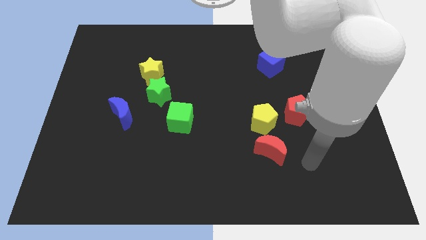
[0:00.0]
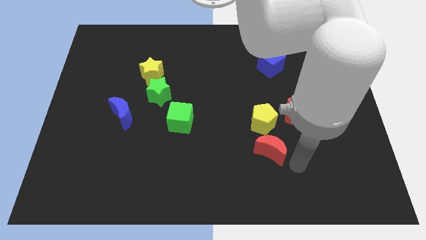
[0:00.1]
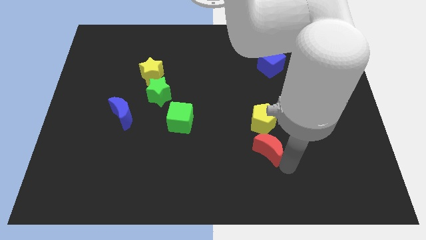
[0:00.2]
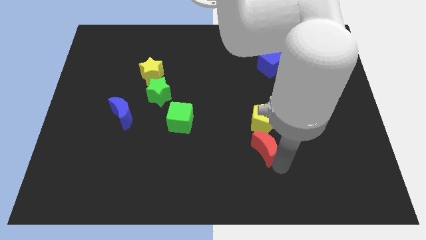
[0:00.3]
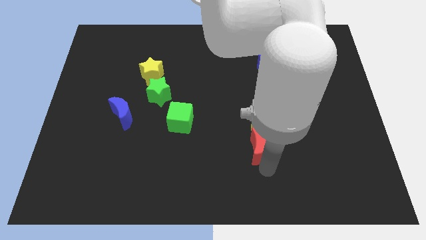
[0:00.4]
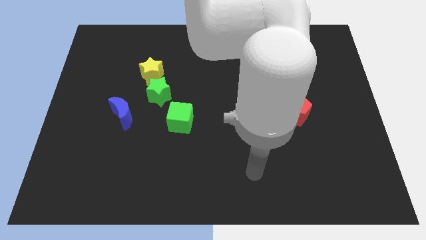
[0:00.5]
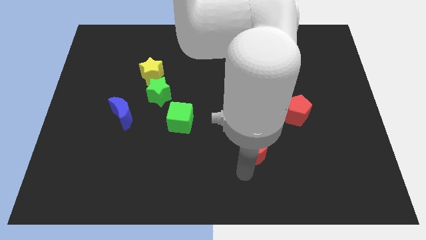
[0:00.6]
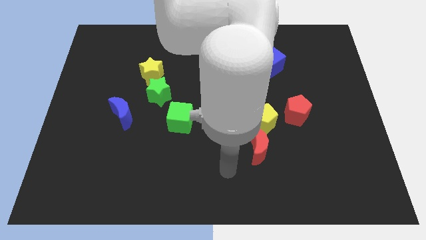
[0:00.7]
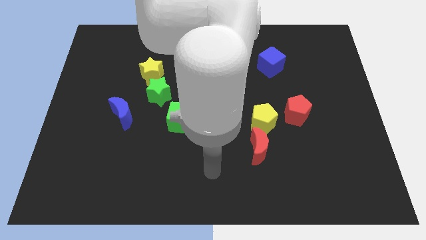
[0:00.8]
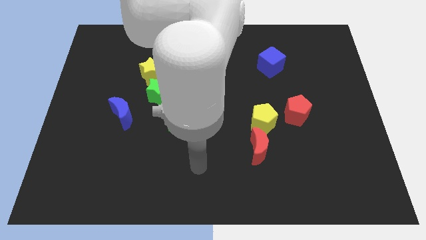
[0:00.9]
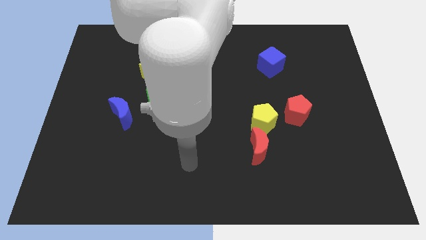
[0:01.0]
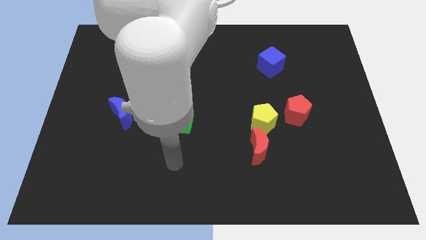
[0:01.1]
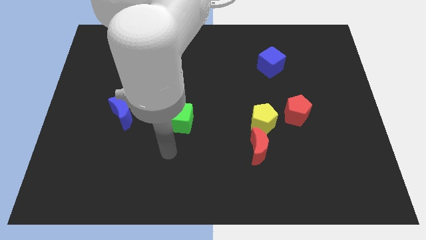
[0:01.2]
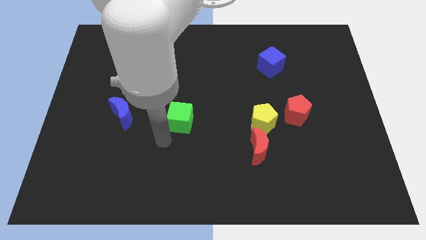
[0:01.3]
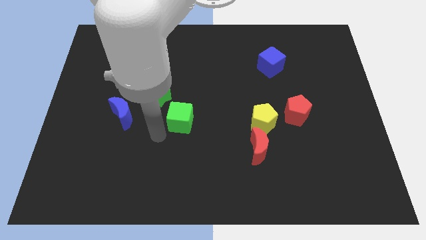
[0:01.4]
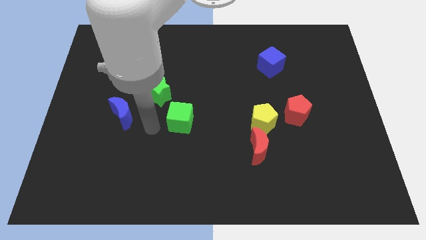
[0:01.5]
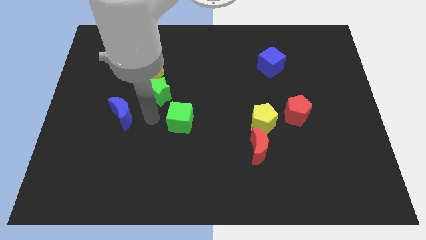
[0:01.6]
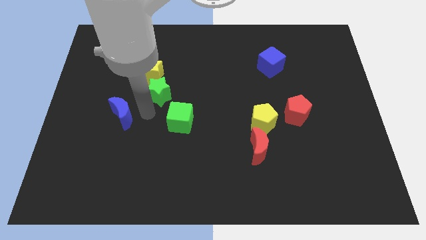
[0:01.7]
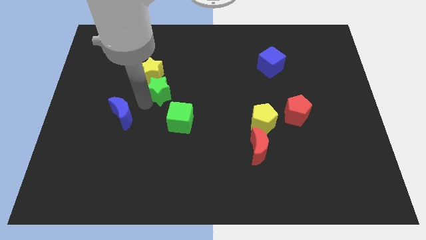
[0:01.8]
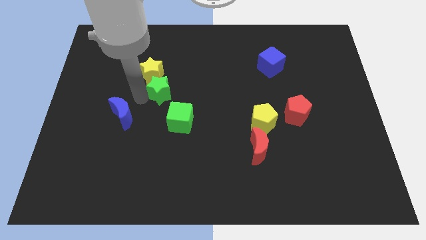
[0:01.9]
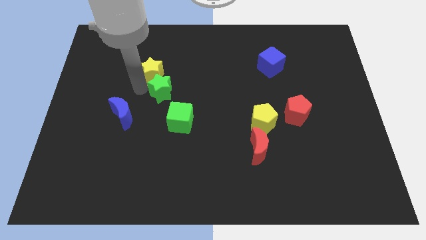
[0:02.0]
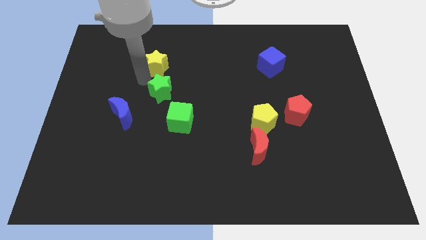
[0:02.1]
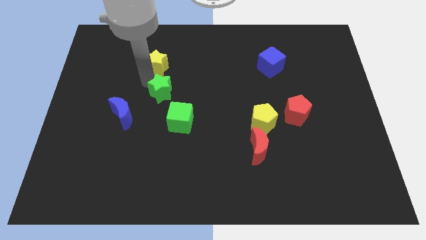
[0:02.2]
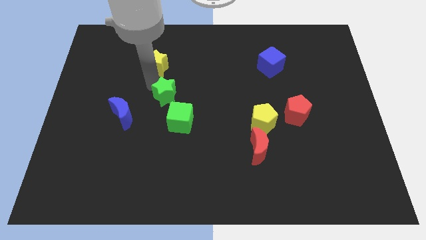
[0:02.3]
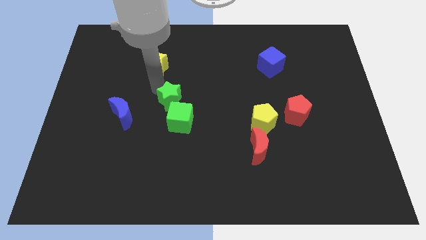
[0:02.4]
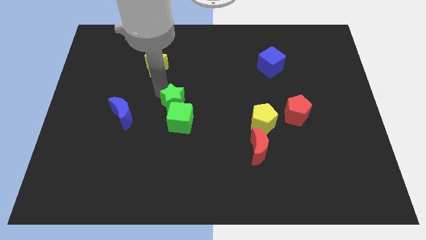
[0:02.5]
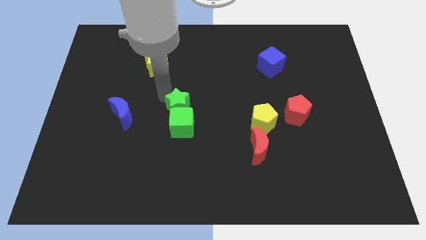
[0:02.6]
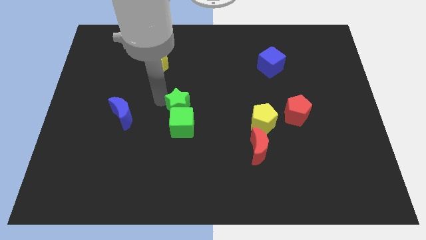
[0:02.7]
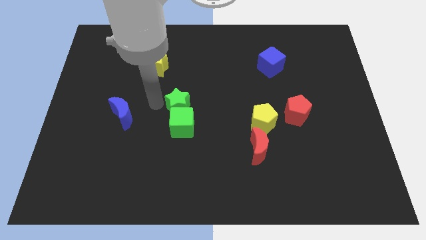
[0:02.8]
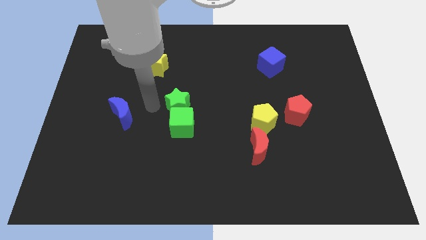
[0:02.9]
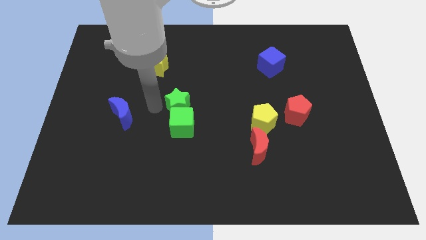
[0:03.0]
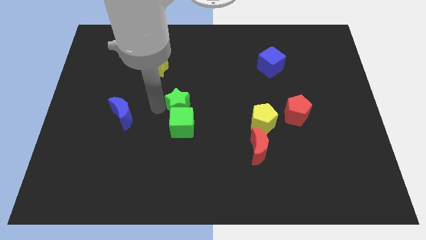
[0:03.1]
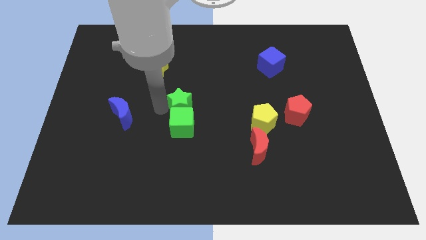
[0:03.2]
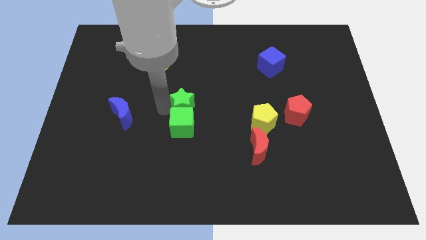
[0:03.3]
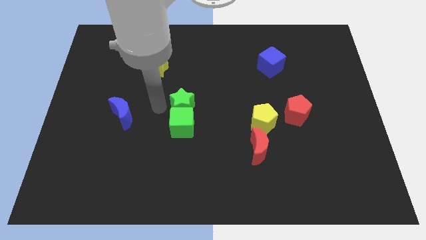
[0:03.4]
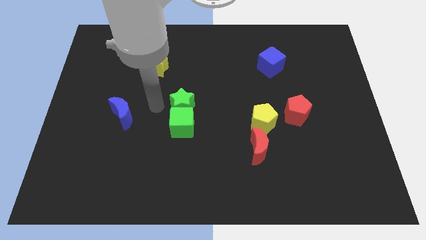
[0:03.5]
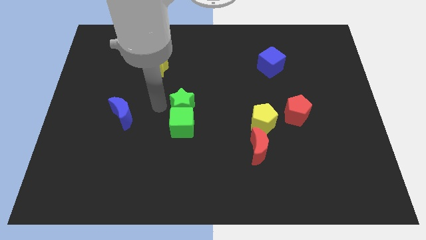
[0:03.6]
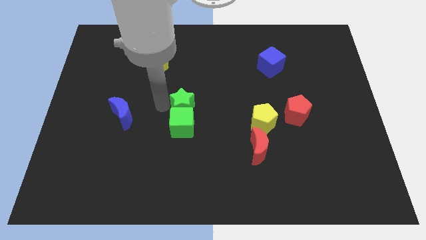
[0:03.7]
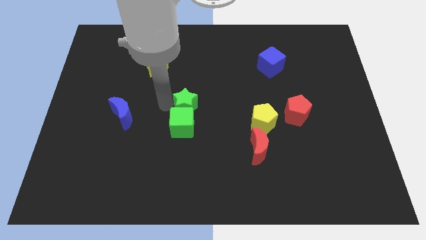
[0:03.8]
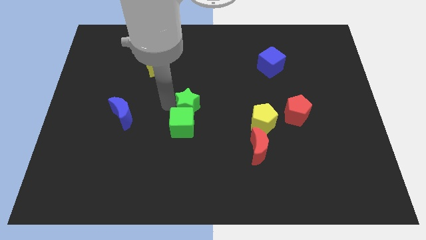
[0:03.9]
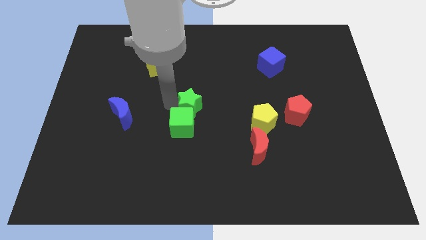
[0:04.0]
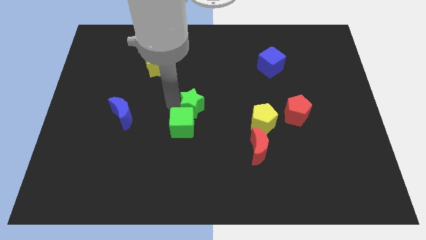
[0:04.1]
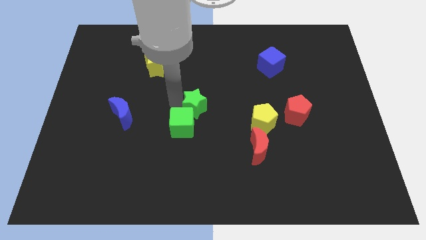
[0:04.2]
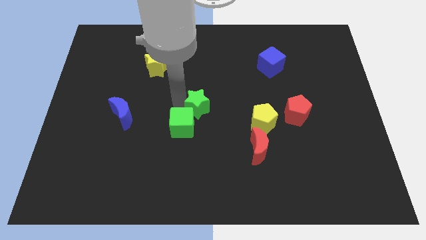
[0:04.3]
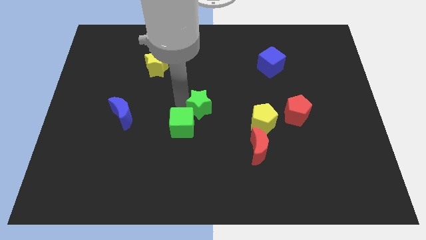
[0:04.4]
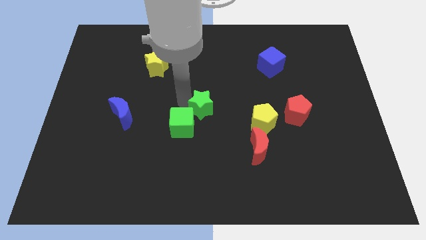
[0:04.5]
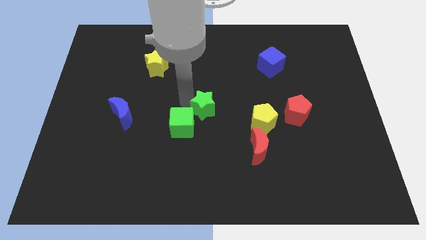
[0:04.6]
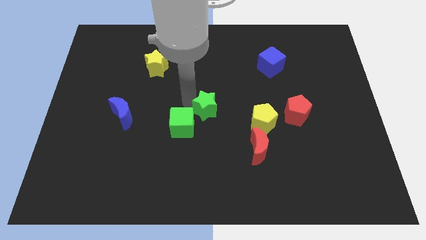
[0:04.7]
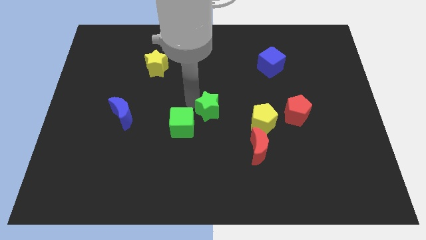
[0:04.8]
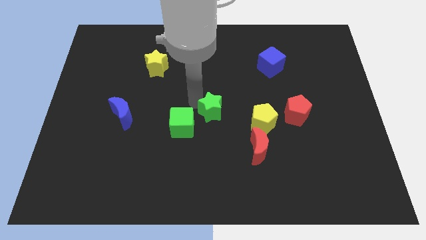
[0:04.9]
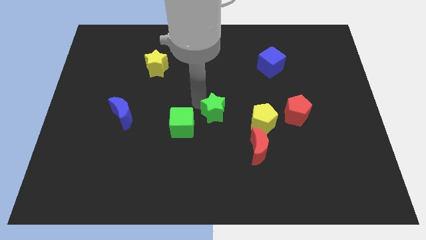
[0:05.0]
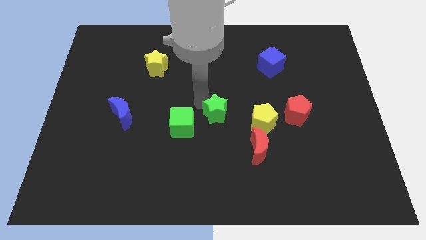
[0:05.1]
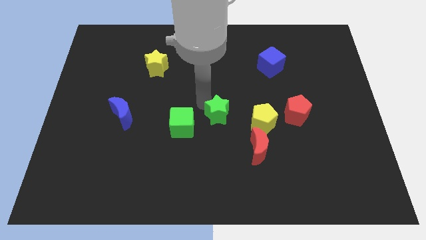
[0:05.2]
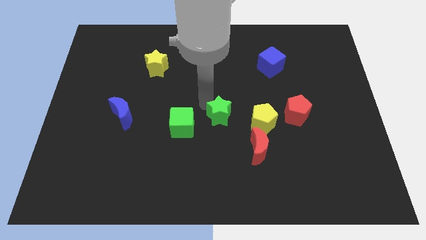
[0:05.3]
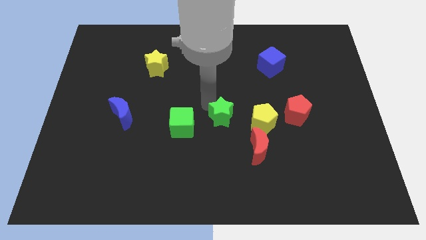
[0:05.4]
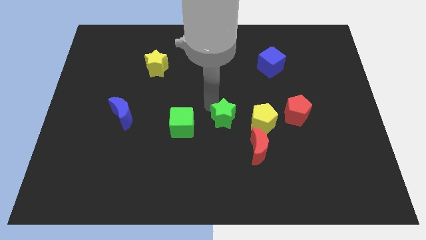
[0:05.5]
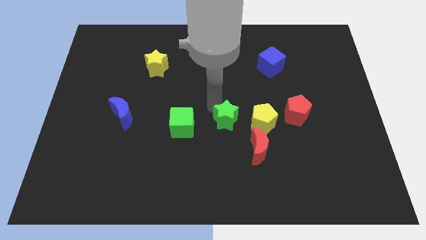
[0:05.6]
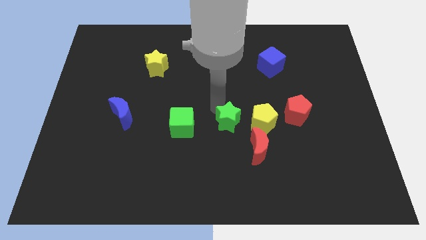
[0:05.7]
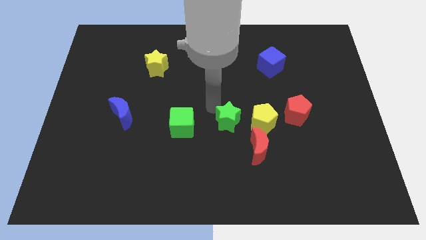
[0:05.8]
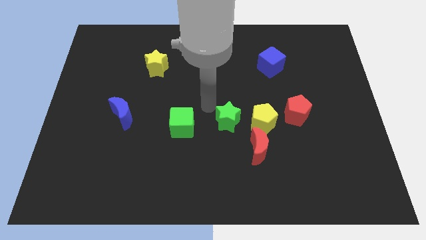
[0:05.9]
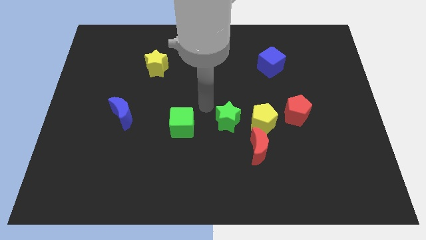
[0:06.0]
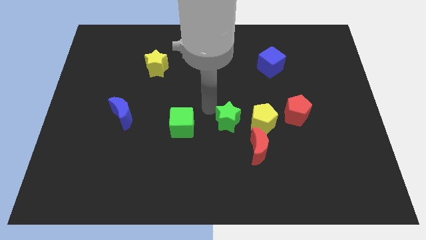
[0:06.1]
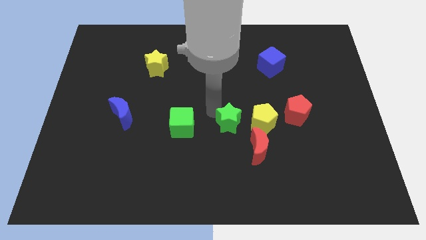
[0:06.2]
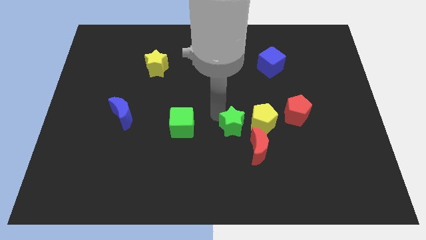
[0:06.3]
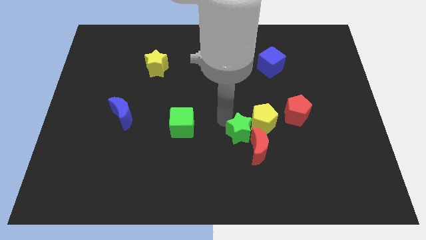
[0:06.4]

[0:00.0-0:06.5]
move the green star towards the red moon

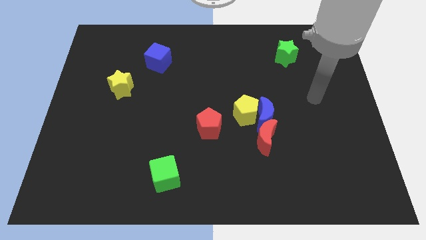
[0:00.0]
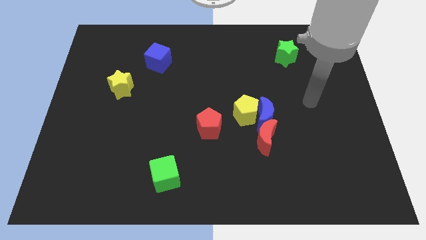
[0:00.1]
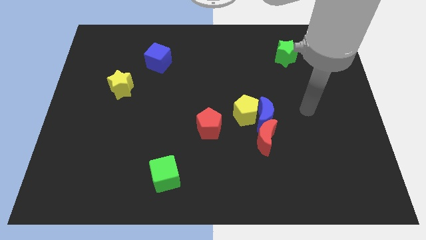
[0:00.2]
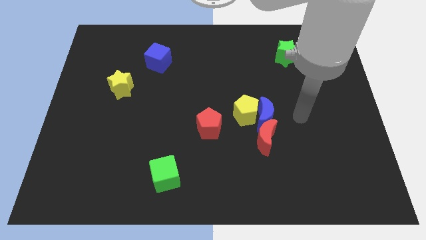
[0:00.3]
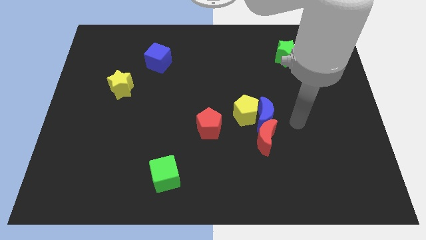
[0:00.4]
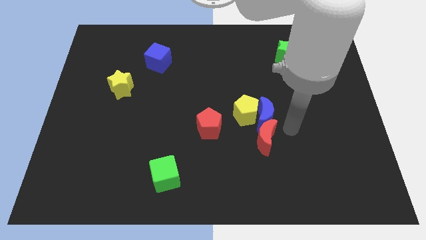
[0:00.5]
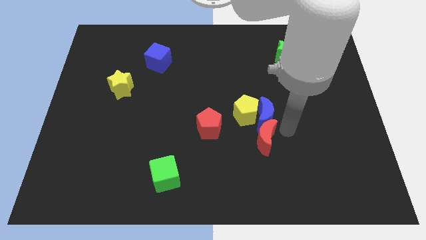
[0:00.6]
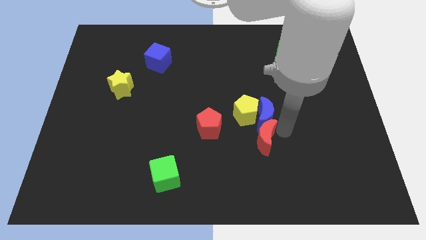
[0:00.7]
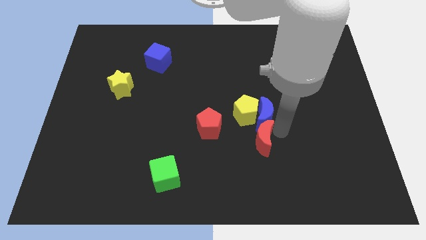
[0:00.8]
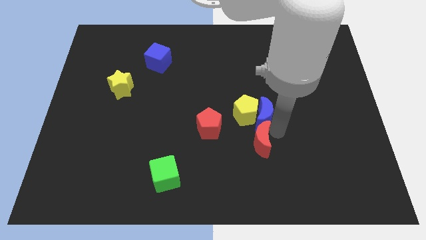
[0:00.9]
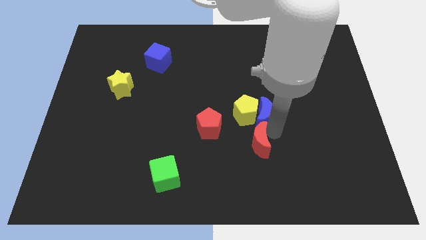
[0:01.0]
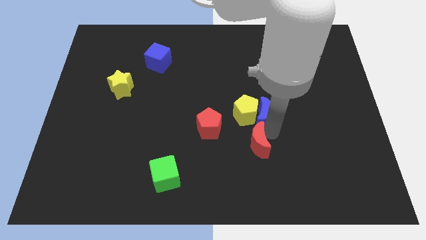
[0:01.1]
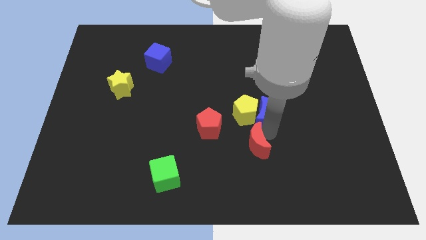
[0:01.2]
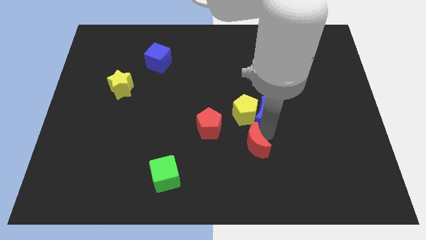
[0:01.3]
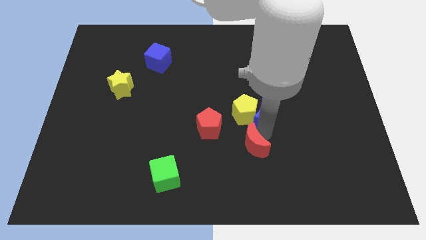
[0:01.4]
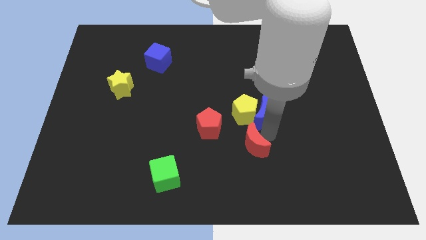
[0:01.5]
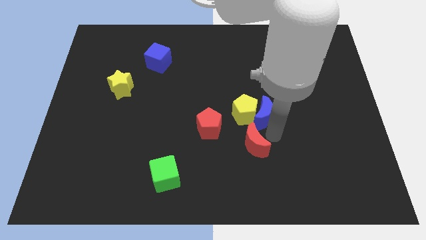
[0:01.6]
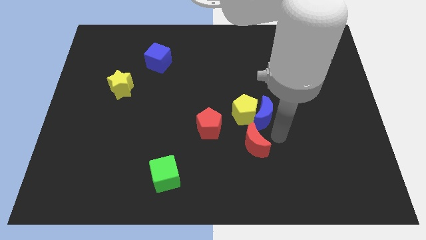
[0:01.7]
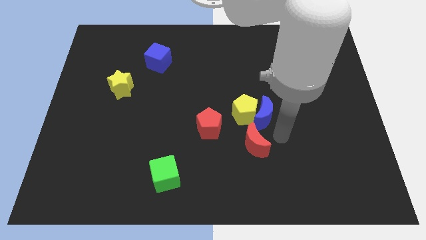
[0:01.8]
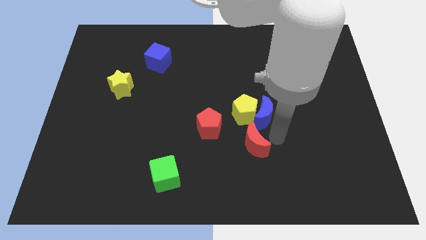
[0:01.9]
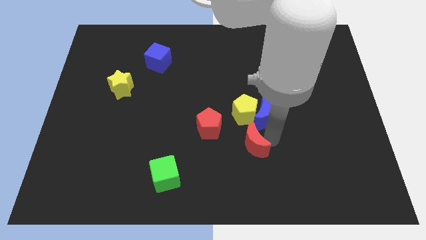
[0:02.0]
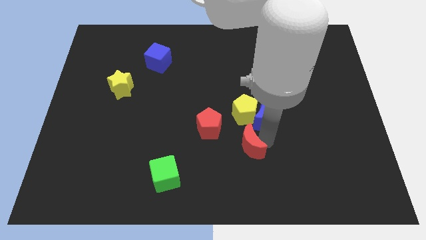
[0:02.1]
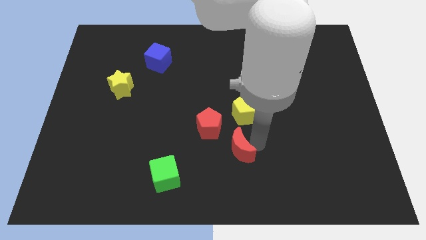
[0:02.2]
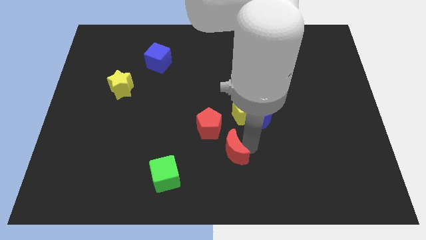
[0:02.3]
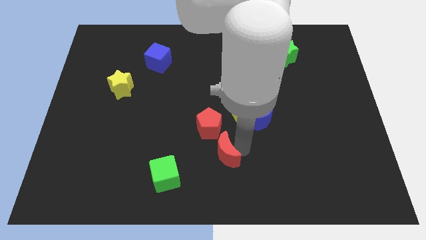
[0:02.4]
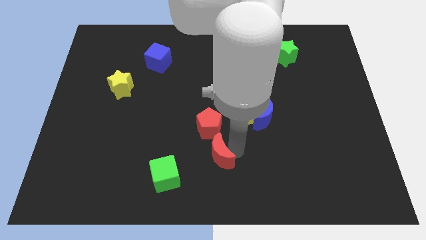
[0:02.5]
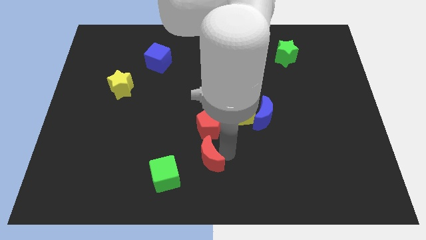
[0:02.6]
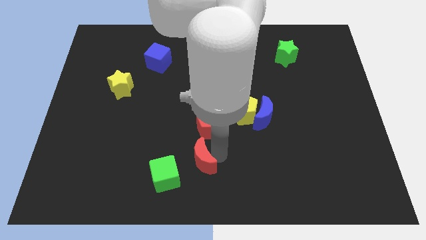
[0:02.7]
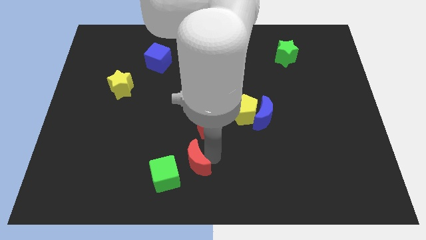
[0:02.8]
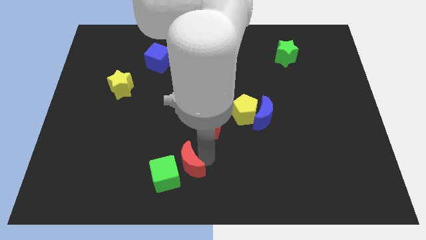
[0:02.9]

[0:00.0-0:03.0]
slide the red moon next to the green cube
